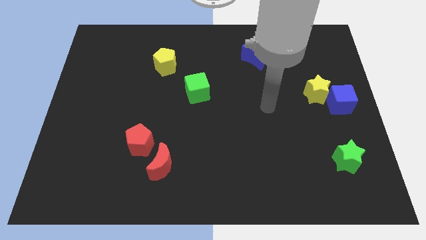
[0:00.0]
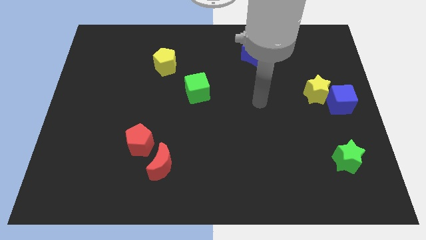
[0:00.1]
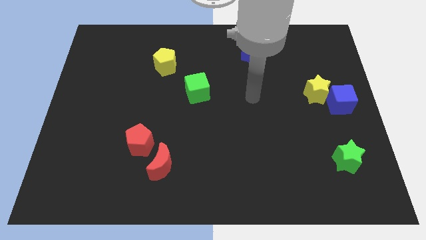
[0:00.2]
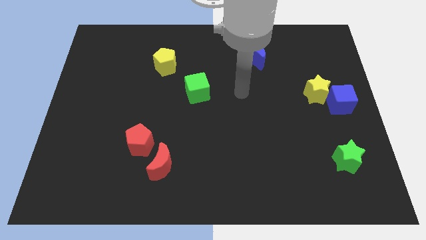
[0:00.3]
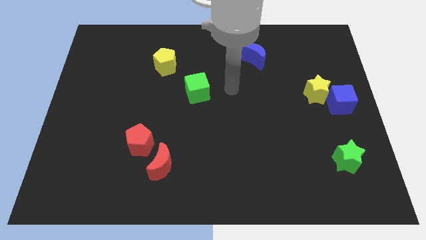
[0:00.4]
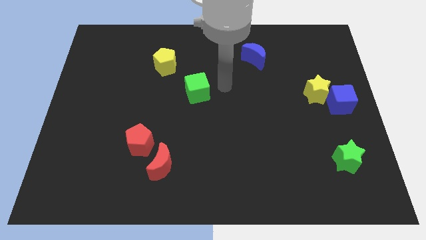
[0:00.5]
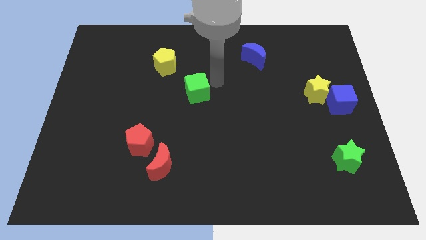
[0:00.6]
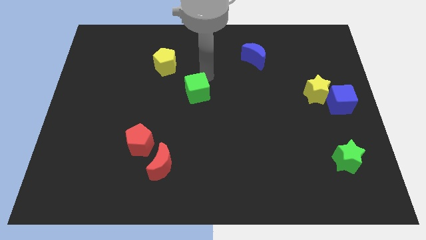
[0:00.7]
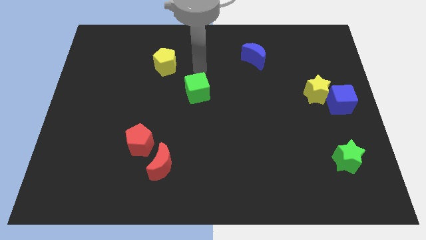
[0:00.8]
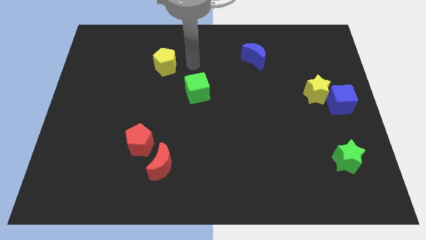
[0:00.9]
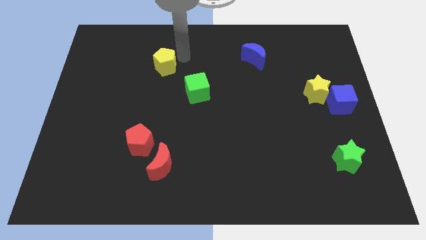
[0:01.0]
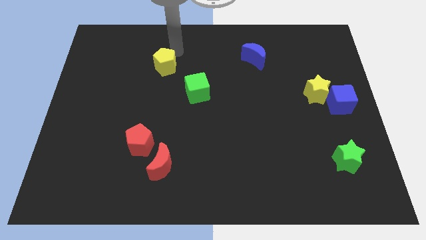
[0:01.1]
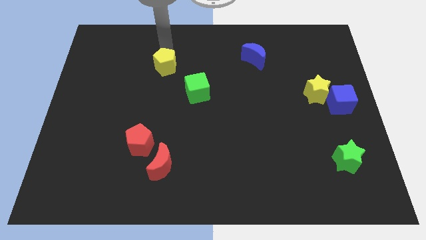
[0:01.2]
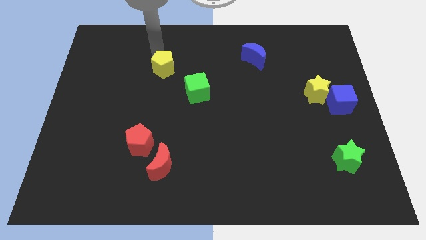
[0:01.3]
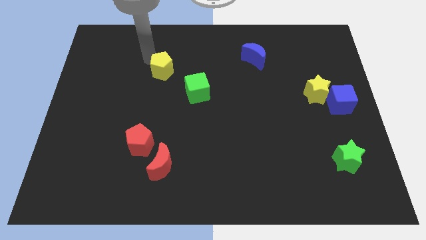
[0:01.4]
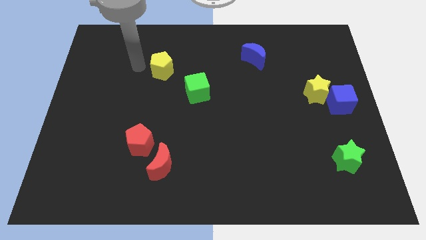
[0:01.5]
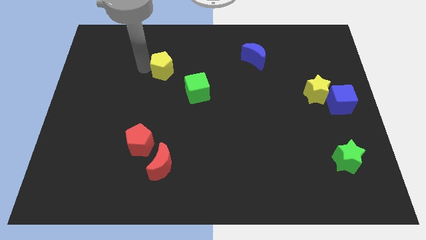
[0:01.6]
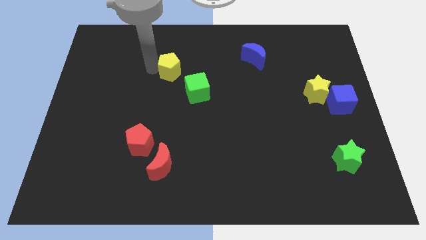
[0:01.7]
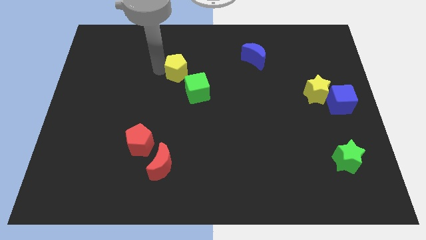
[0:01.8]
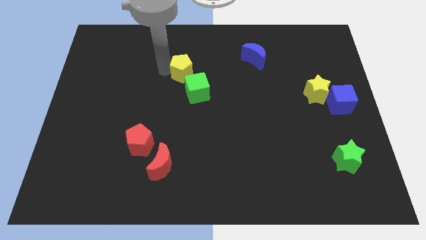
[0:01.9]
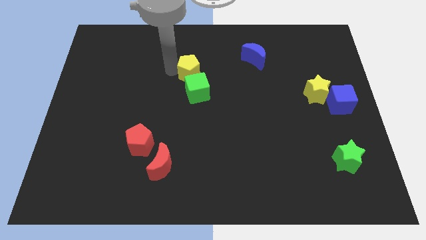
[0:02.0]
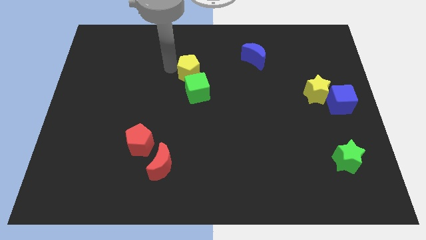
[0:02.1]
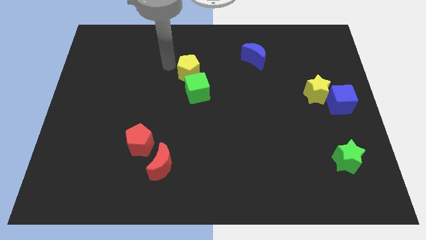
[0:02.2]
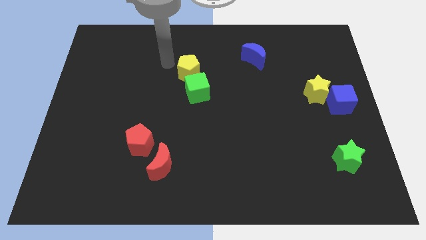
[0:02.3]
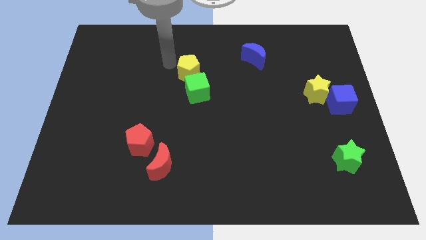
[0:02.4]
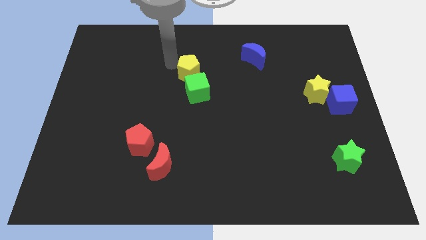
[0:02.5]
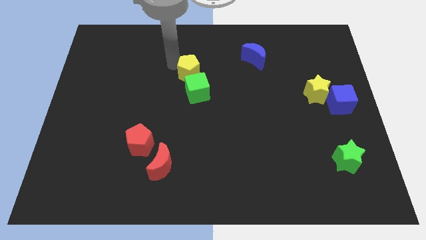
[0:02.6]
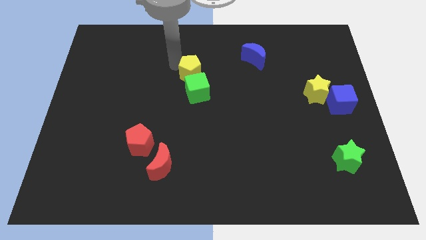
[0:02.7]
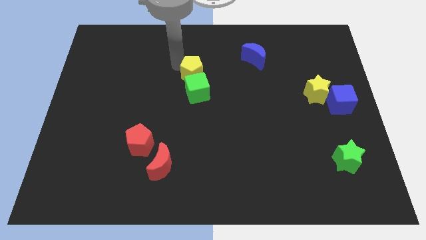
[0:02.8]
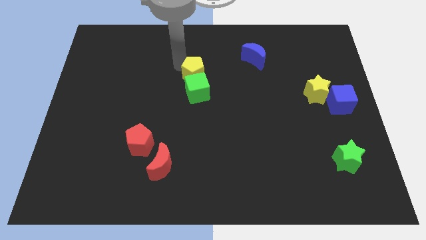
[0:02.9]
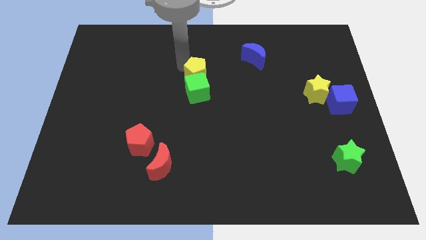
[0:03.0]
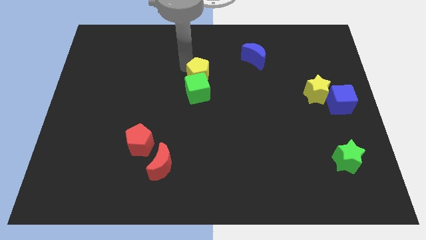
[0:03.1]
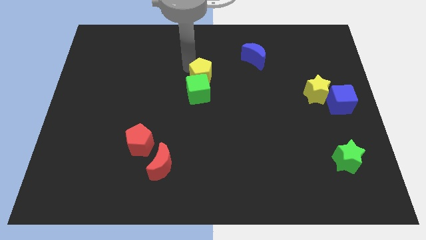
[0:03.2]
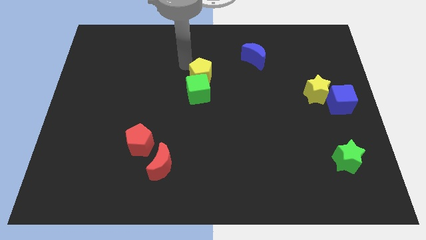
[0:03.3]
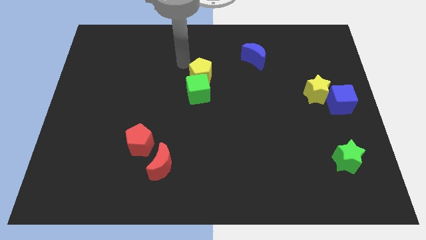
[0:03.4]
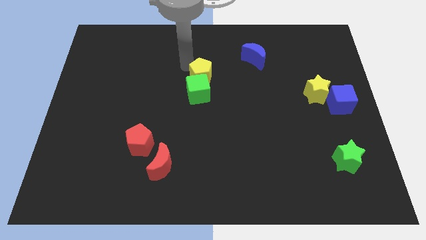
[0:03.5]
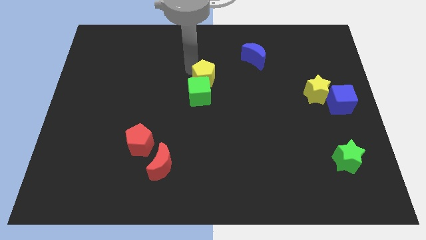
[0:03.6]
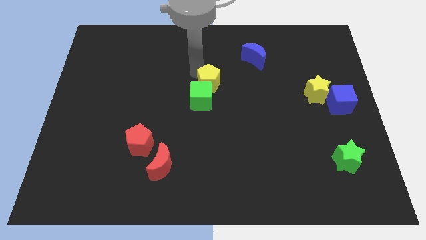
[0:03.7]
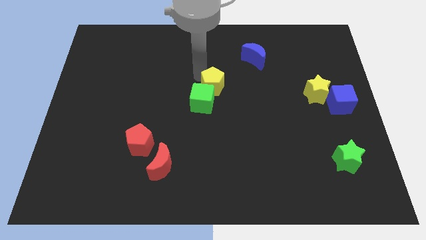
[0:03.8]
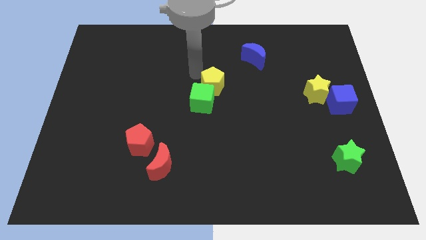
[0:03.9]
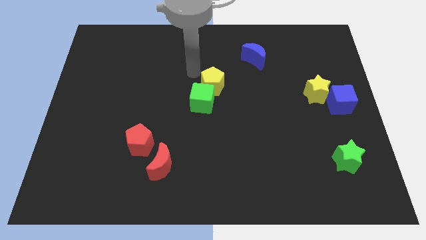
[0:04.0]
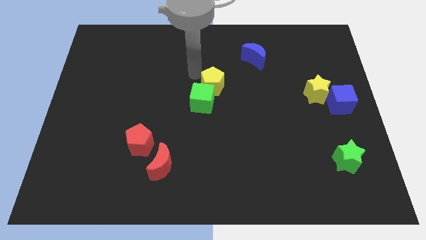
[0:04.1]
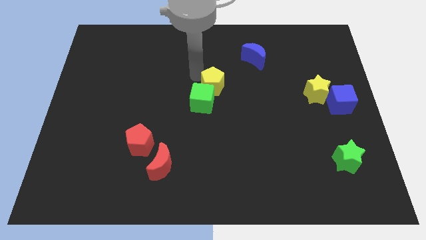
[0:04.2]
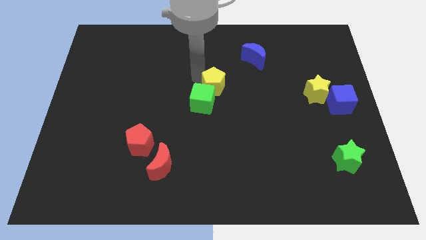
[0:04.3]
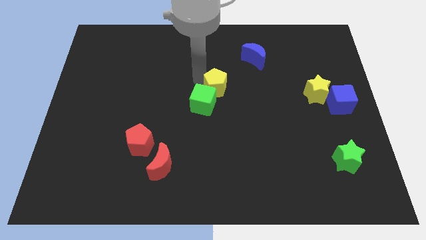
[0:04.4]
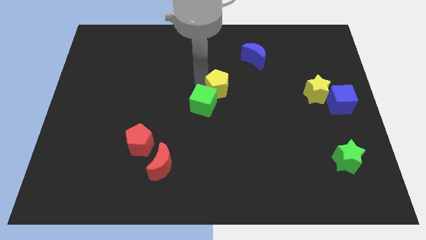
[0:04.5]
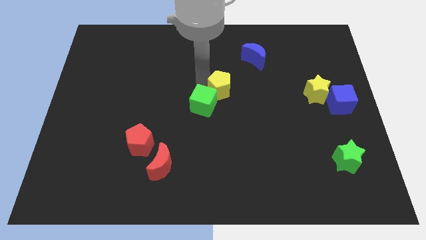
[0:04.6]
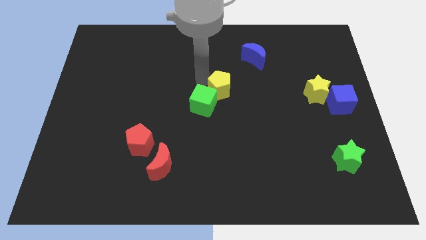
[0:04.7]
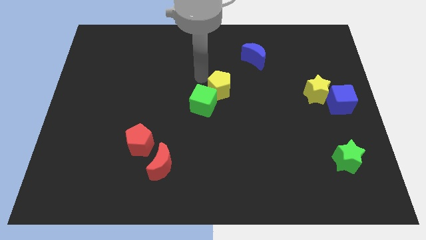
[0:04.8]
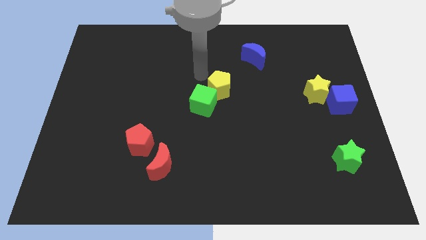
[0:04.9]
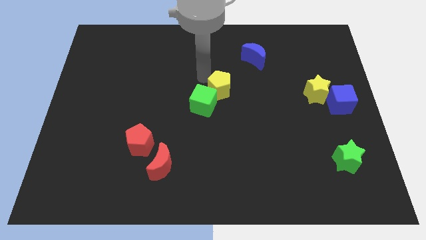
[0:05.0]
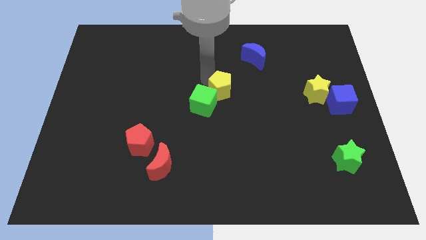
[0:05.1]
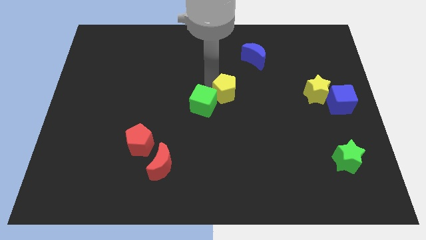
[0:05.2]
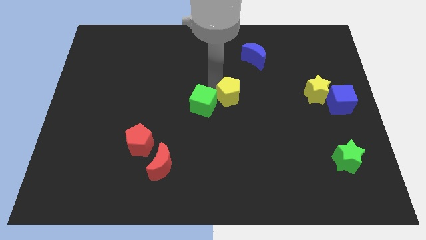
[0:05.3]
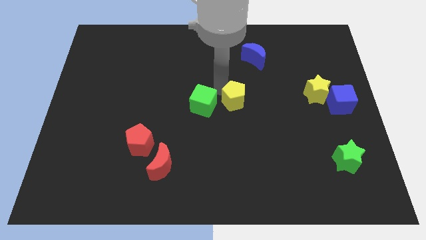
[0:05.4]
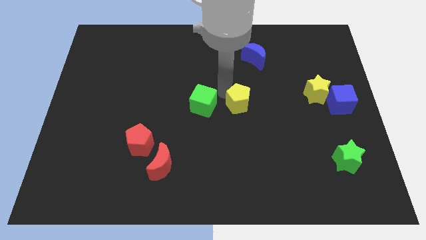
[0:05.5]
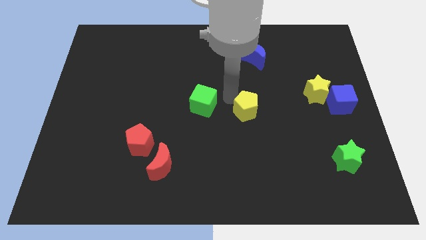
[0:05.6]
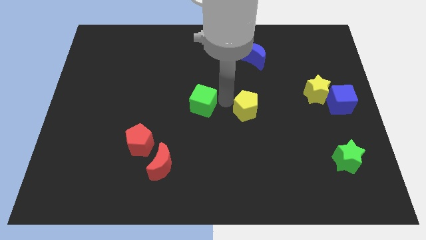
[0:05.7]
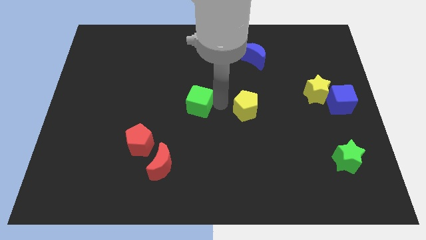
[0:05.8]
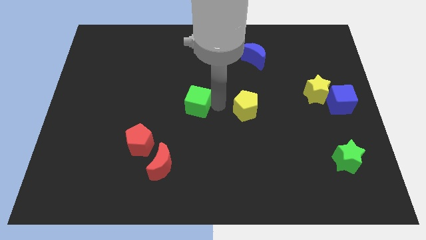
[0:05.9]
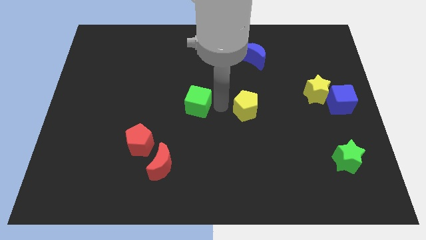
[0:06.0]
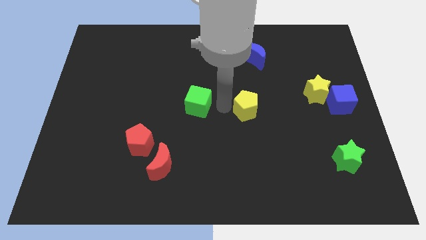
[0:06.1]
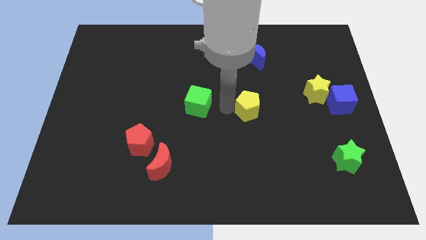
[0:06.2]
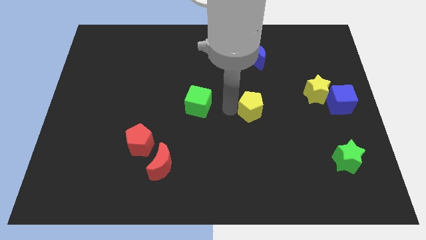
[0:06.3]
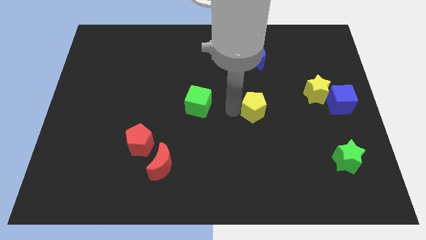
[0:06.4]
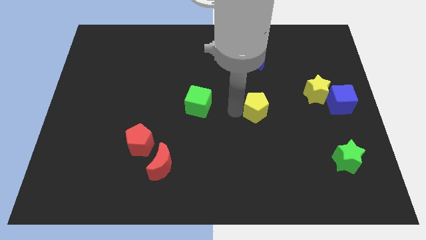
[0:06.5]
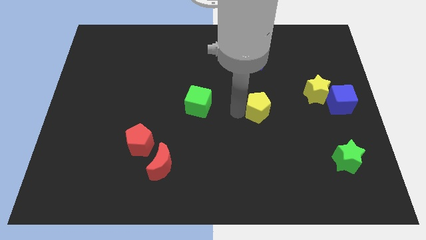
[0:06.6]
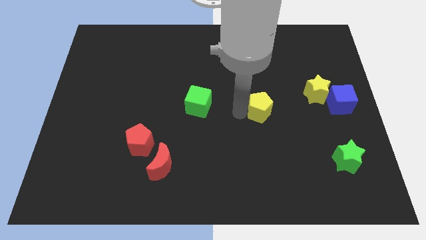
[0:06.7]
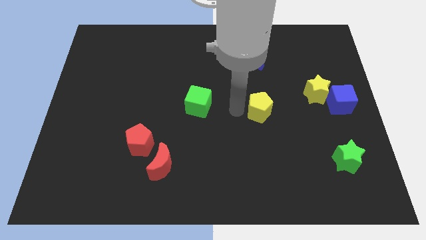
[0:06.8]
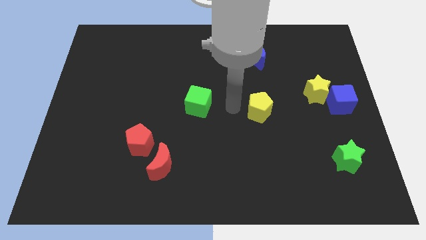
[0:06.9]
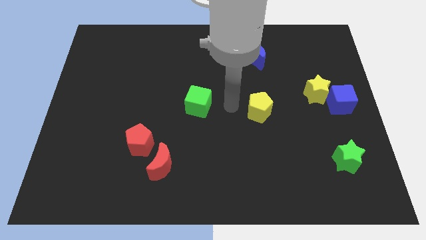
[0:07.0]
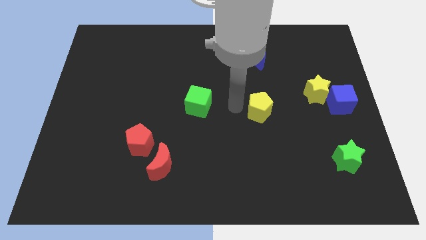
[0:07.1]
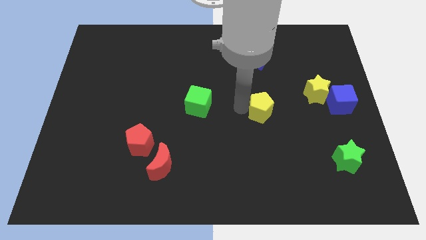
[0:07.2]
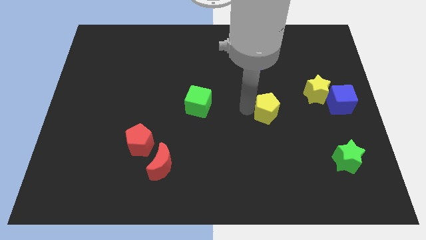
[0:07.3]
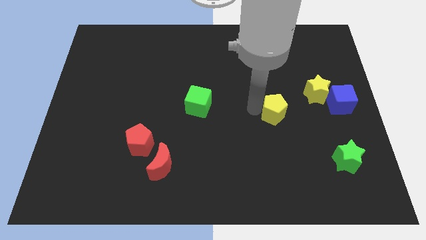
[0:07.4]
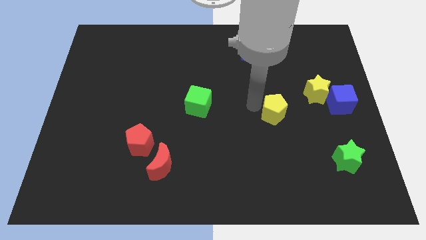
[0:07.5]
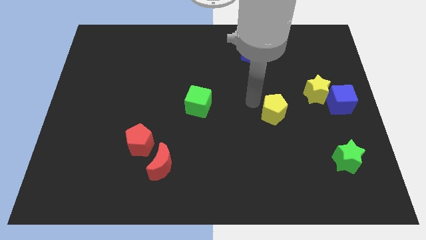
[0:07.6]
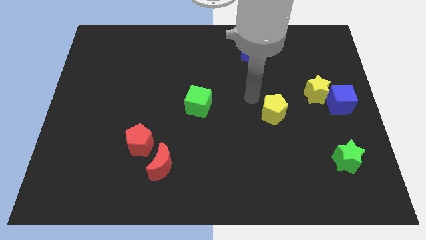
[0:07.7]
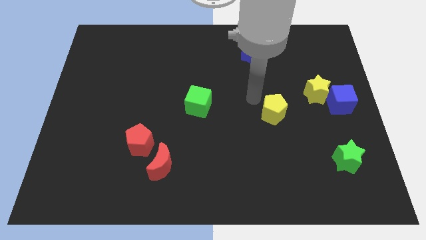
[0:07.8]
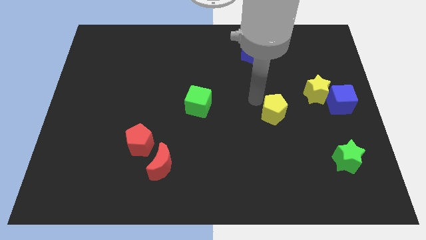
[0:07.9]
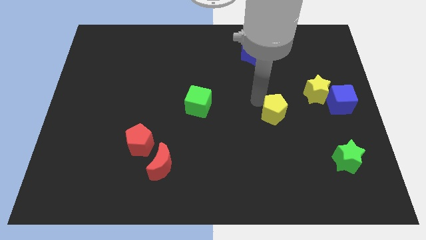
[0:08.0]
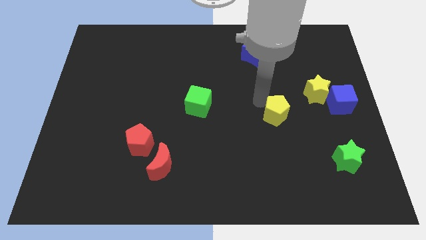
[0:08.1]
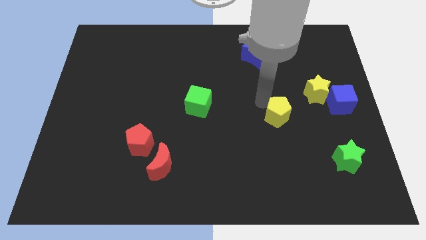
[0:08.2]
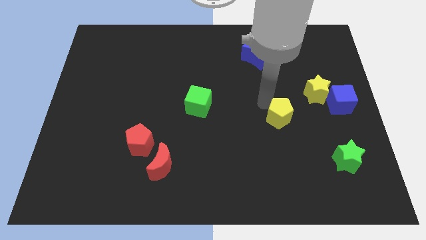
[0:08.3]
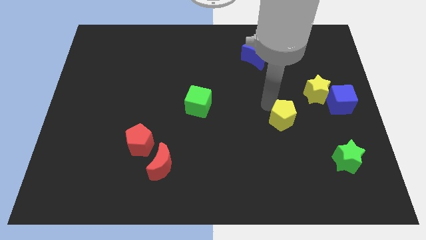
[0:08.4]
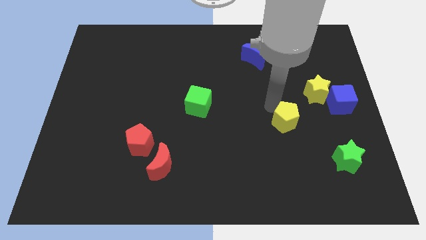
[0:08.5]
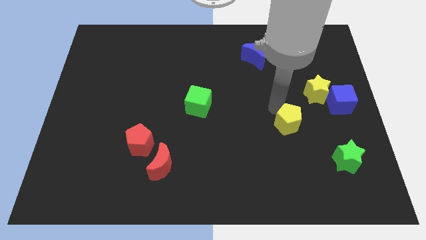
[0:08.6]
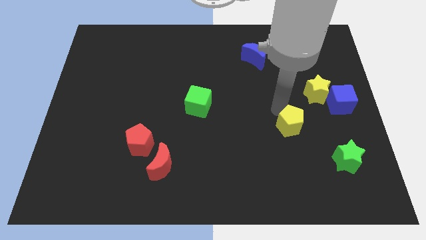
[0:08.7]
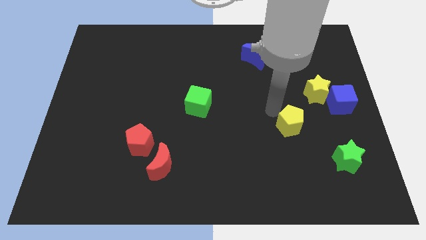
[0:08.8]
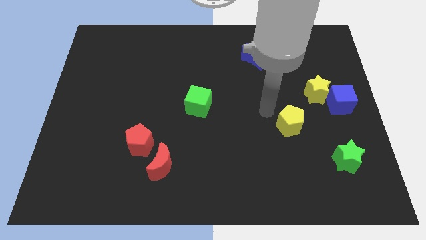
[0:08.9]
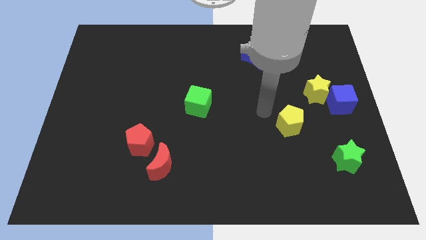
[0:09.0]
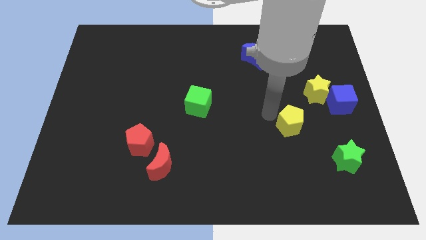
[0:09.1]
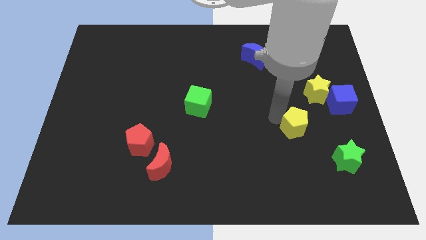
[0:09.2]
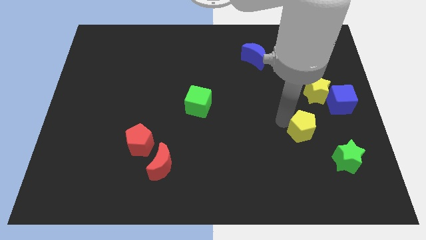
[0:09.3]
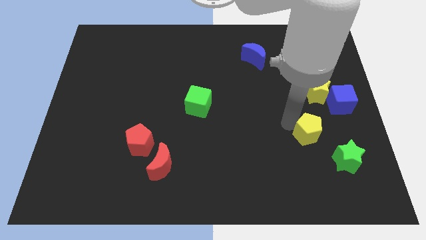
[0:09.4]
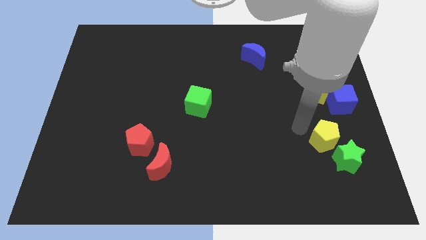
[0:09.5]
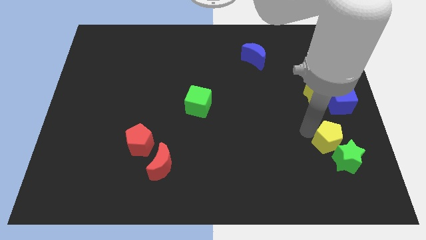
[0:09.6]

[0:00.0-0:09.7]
slide the yellow pentagon towards the green star
